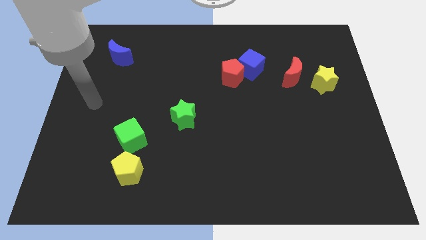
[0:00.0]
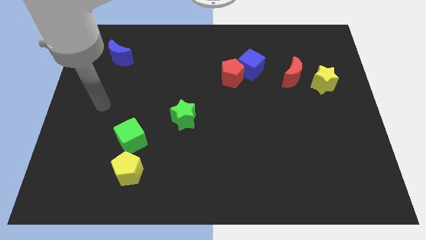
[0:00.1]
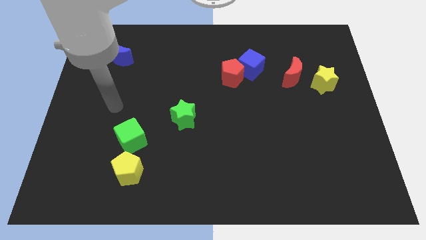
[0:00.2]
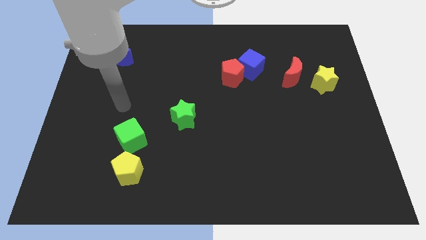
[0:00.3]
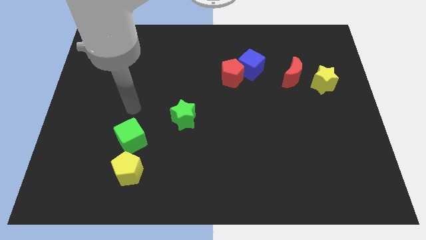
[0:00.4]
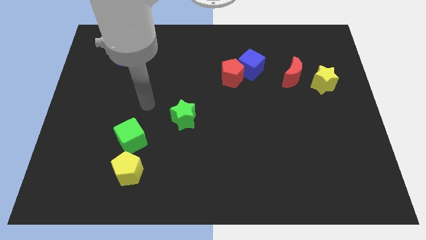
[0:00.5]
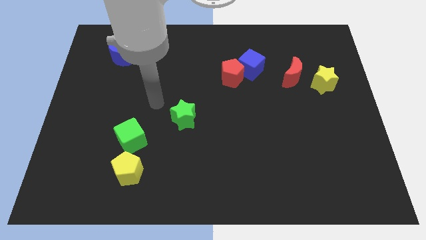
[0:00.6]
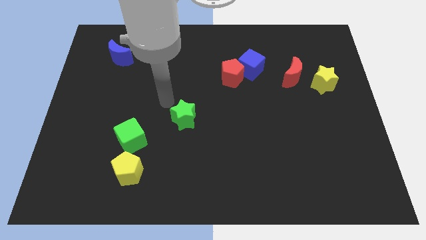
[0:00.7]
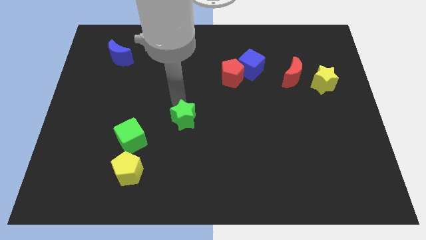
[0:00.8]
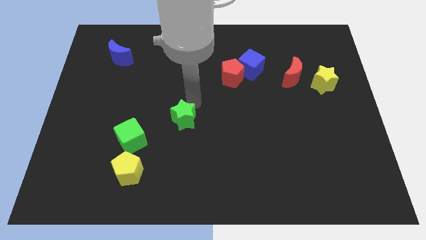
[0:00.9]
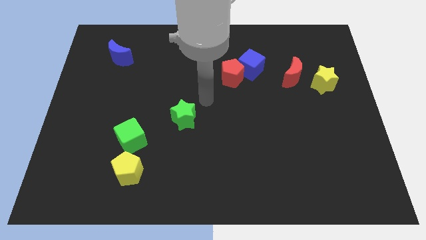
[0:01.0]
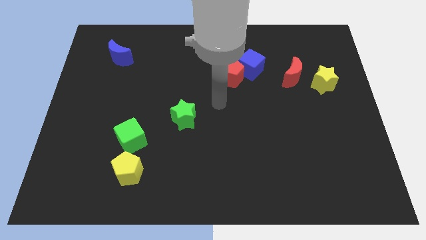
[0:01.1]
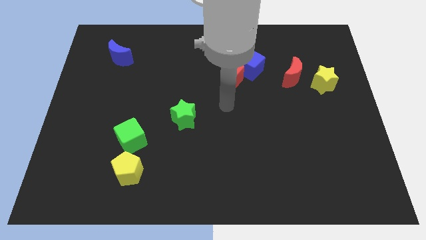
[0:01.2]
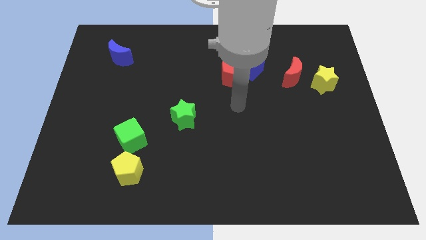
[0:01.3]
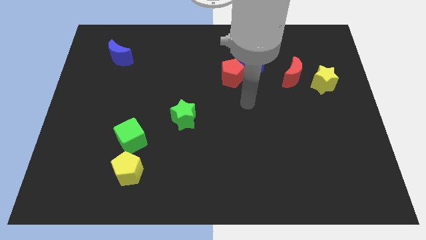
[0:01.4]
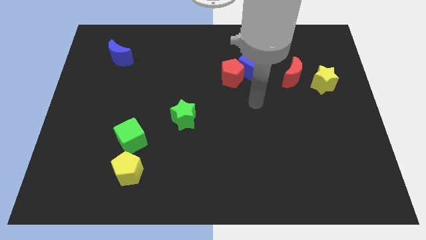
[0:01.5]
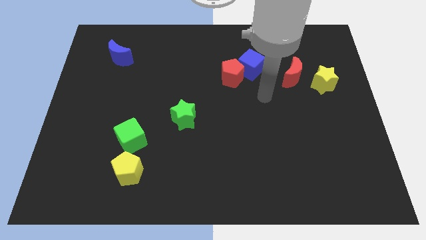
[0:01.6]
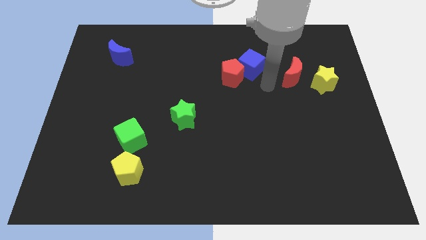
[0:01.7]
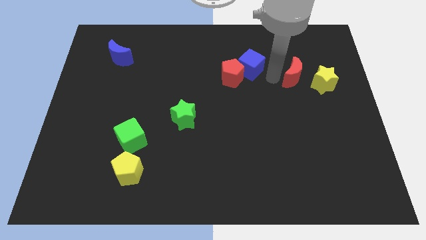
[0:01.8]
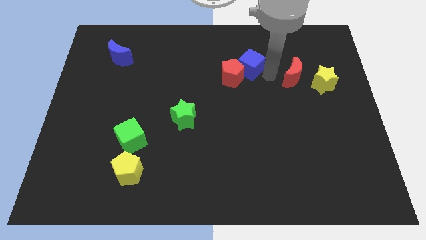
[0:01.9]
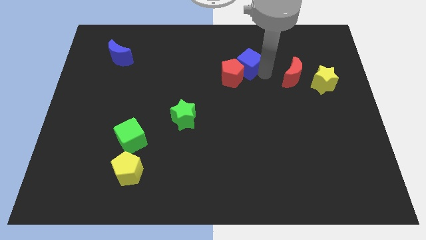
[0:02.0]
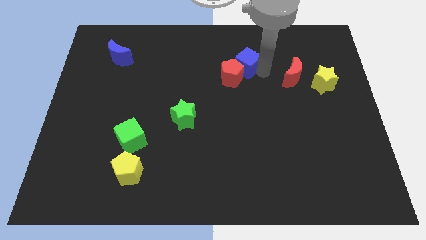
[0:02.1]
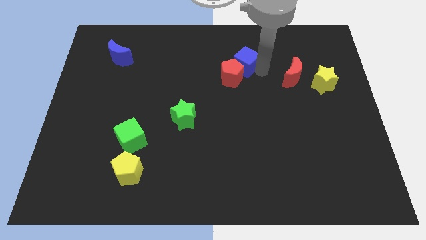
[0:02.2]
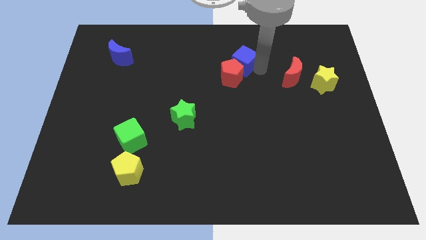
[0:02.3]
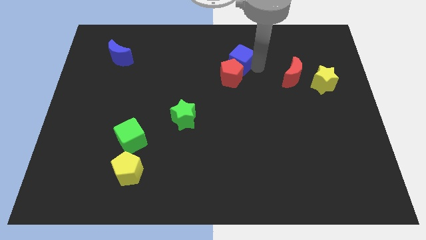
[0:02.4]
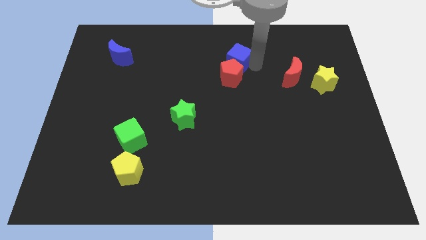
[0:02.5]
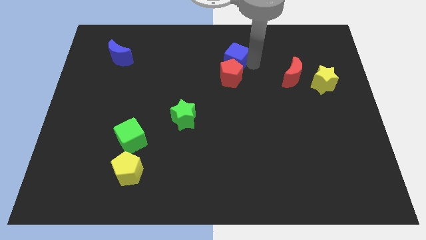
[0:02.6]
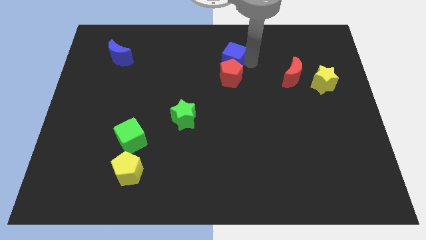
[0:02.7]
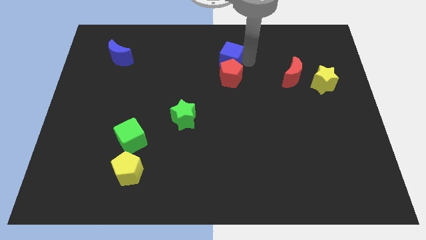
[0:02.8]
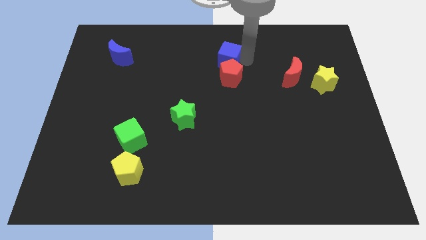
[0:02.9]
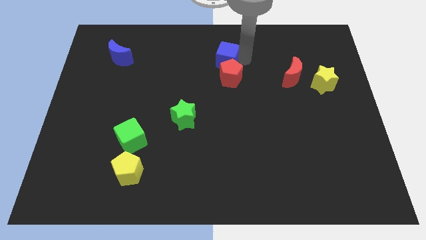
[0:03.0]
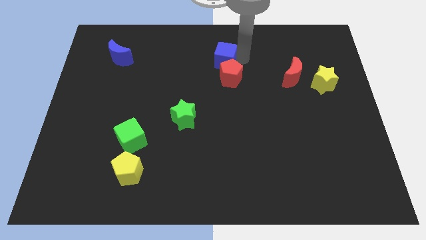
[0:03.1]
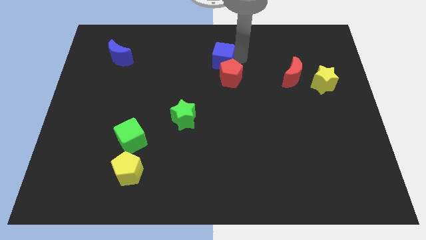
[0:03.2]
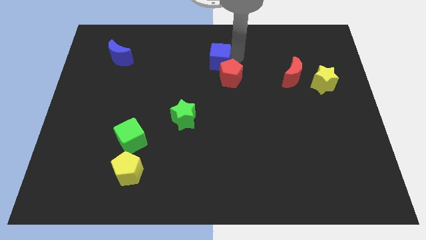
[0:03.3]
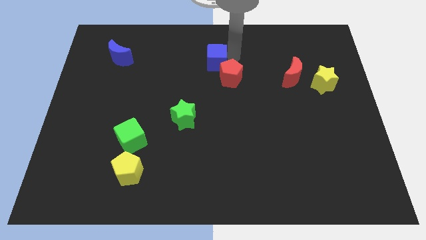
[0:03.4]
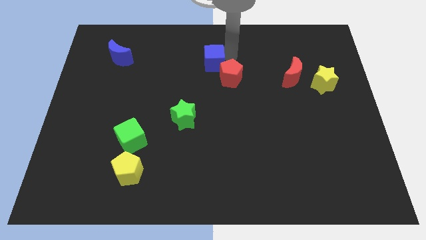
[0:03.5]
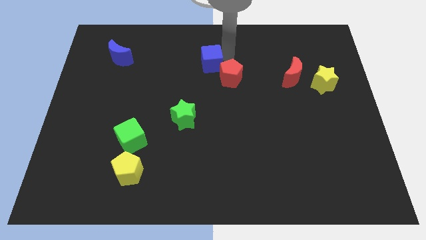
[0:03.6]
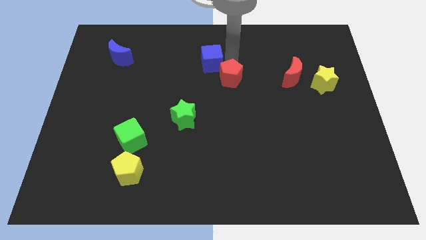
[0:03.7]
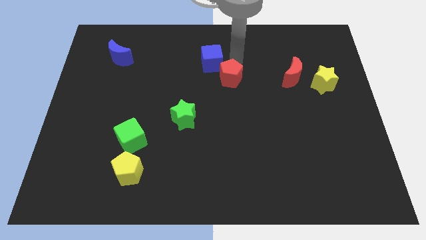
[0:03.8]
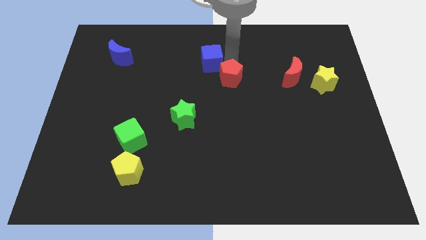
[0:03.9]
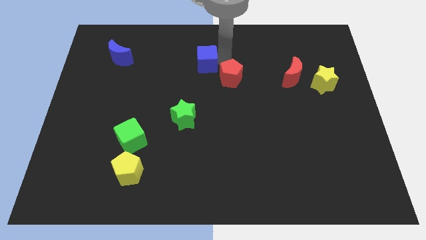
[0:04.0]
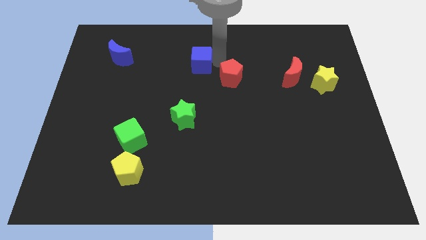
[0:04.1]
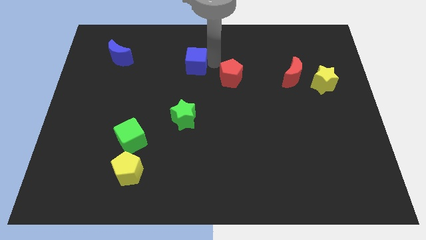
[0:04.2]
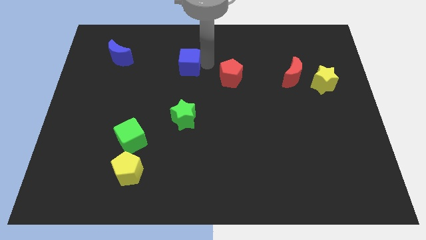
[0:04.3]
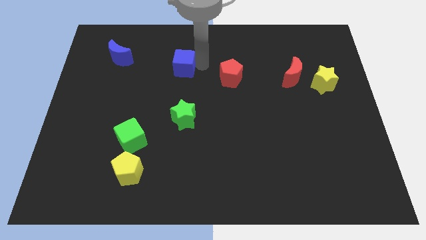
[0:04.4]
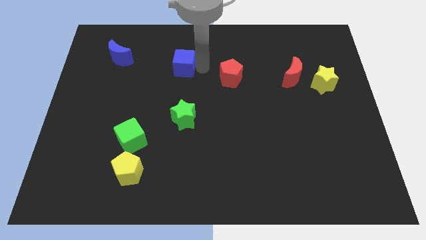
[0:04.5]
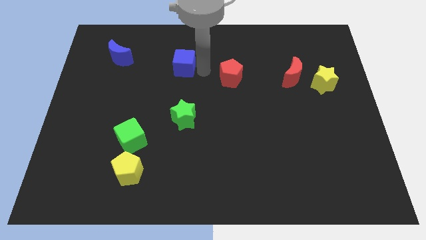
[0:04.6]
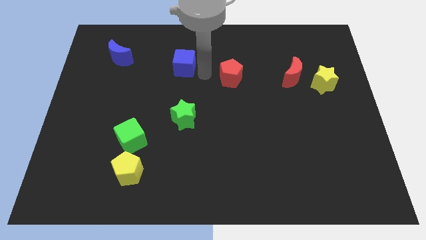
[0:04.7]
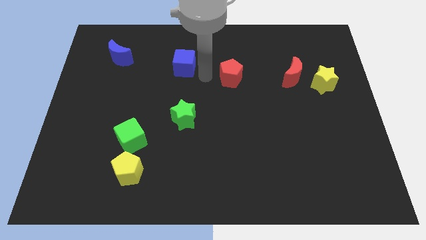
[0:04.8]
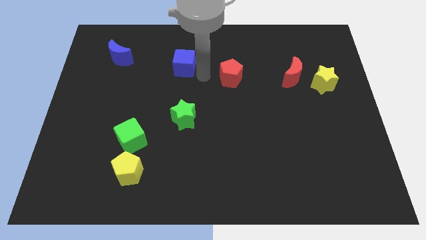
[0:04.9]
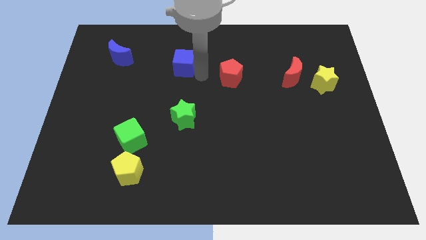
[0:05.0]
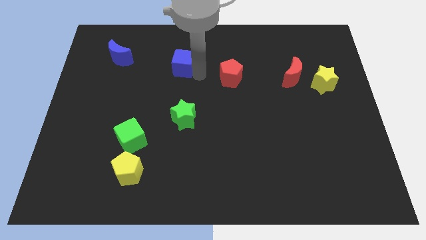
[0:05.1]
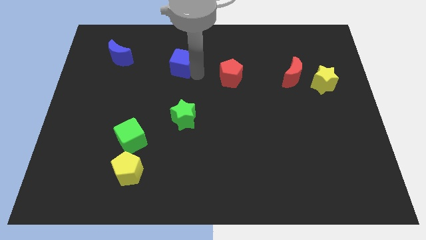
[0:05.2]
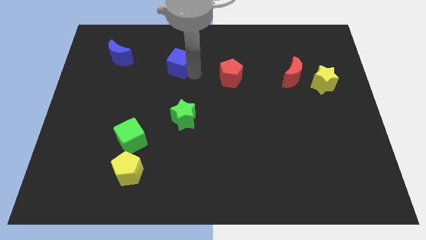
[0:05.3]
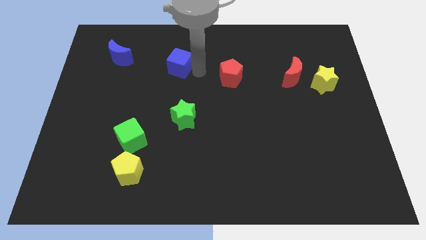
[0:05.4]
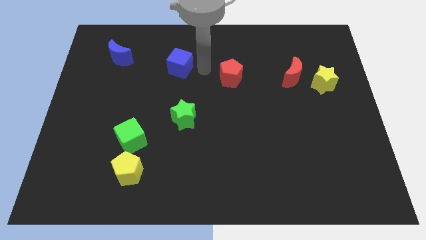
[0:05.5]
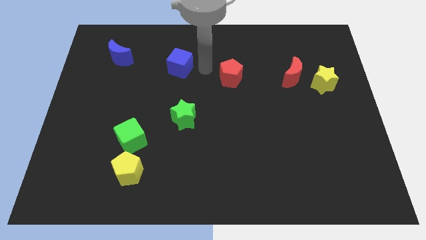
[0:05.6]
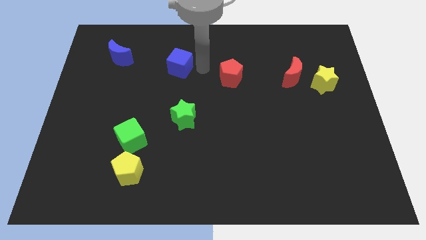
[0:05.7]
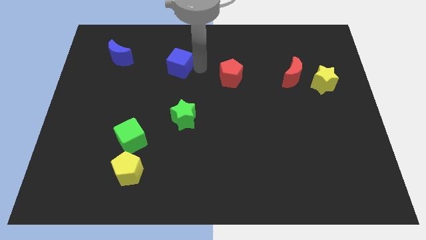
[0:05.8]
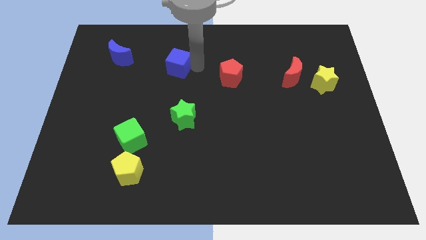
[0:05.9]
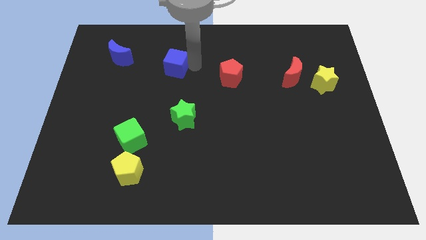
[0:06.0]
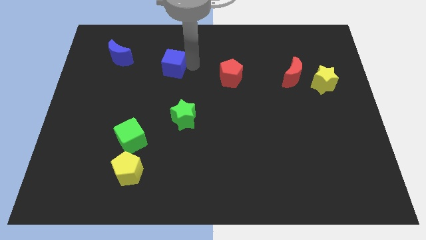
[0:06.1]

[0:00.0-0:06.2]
push the blue cube left

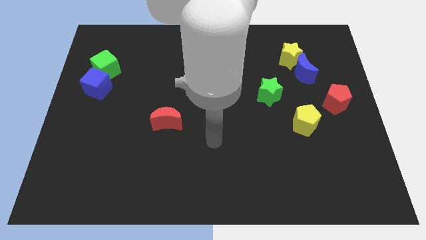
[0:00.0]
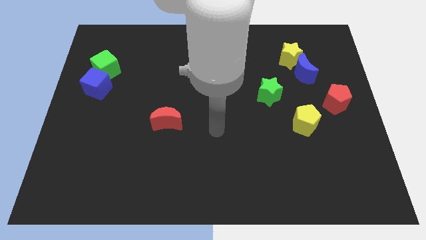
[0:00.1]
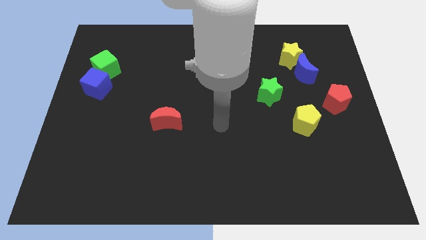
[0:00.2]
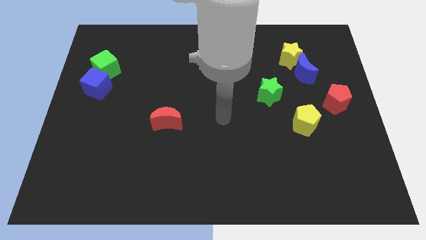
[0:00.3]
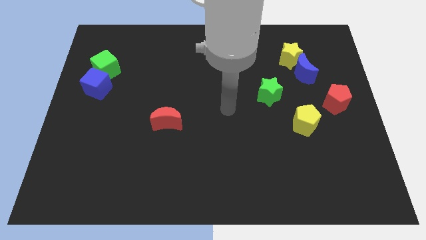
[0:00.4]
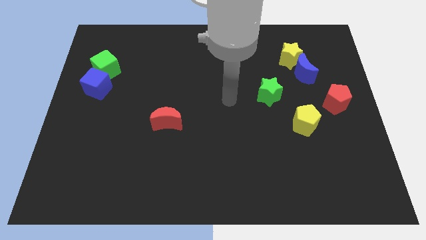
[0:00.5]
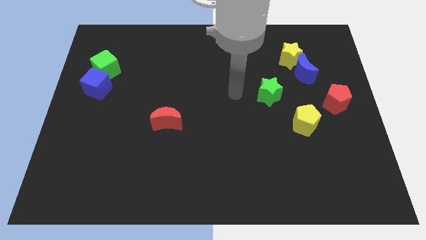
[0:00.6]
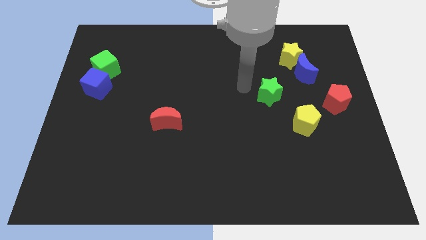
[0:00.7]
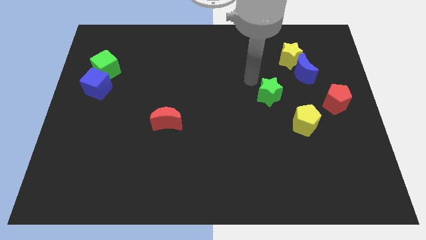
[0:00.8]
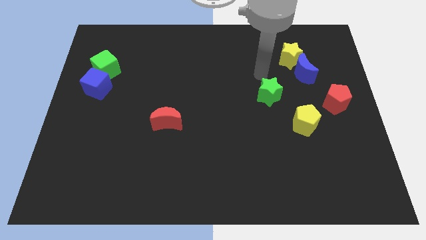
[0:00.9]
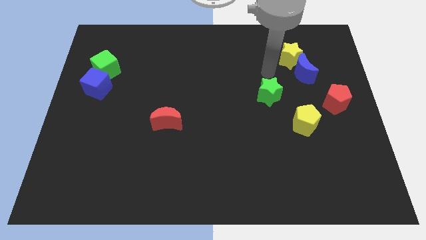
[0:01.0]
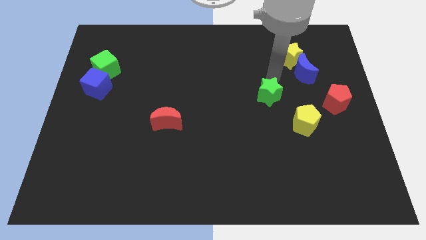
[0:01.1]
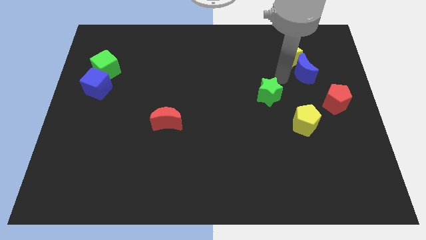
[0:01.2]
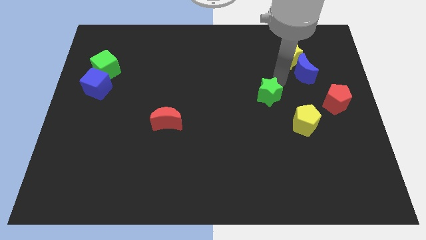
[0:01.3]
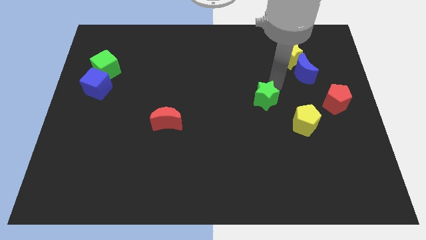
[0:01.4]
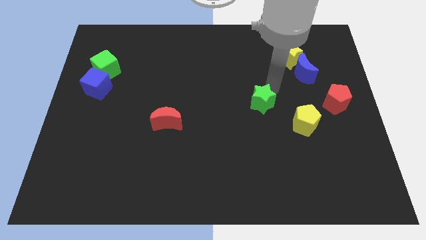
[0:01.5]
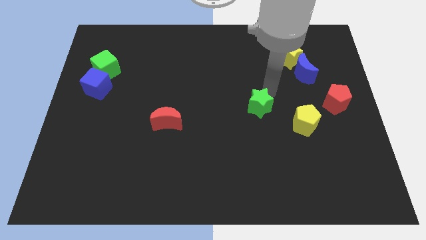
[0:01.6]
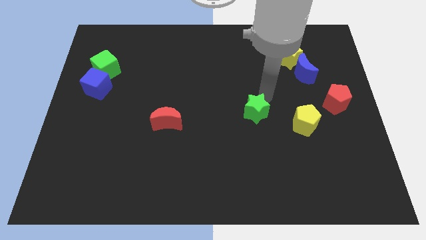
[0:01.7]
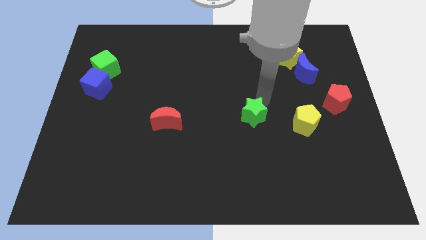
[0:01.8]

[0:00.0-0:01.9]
slide the green star a bit downwards and to the left diagonally
